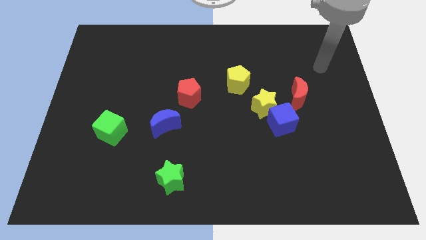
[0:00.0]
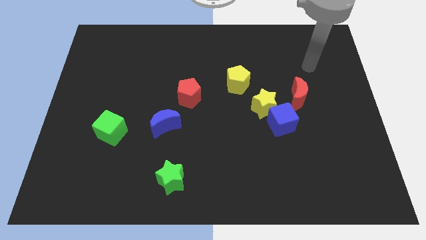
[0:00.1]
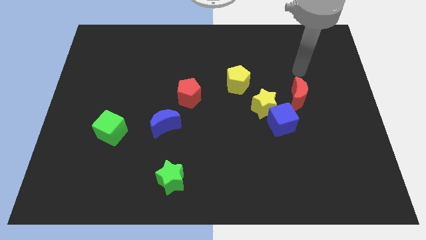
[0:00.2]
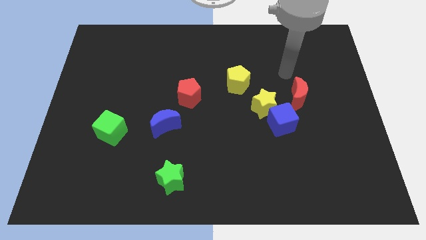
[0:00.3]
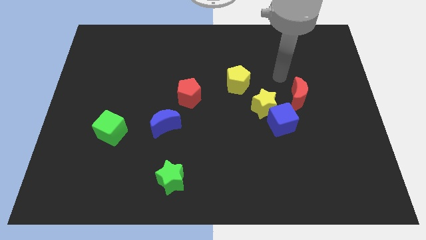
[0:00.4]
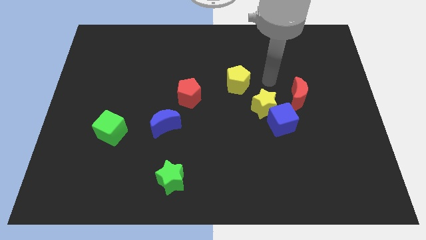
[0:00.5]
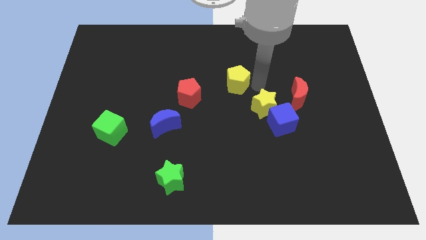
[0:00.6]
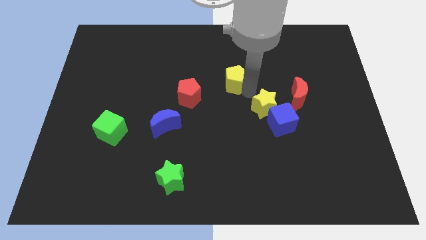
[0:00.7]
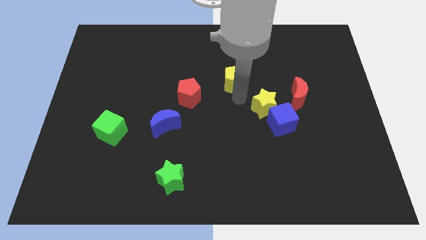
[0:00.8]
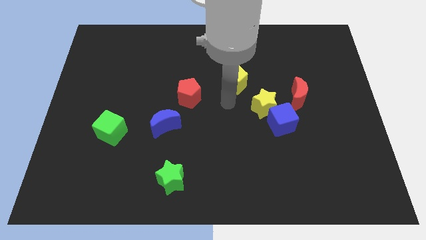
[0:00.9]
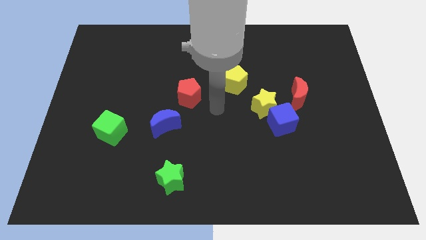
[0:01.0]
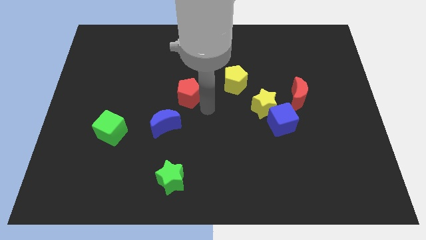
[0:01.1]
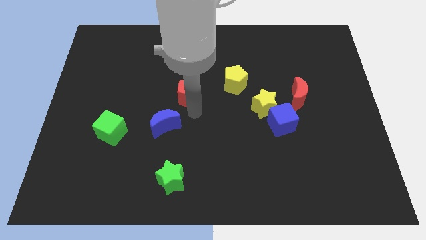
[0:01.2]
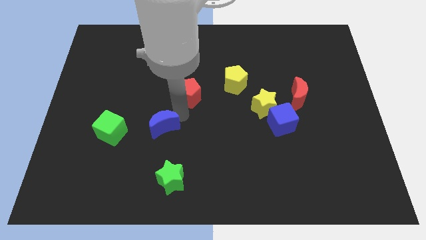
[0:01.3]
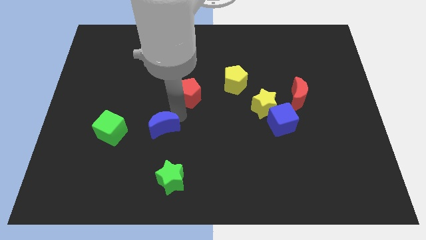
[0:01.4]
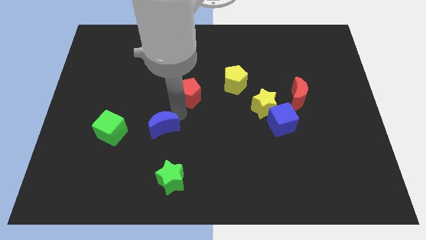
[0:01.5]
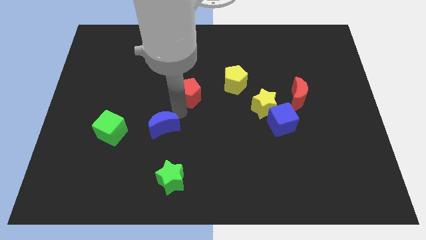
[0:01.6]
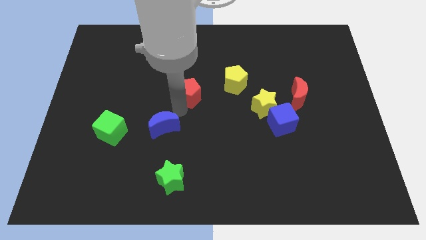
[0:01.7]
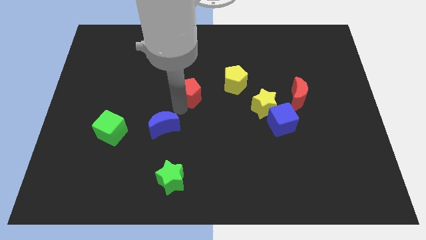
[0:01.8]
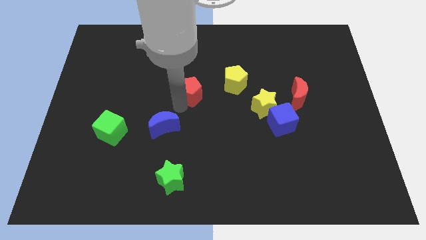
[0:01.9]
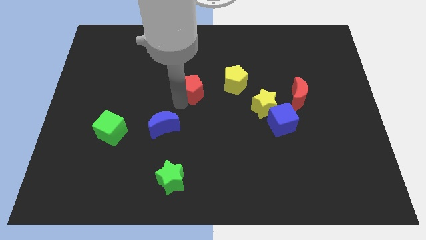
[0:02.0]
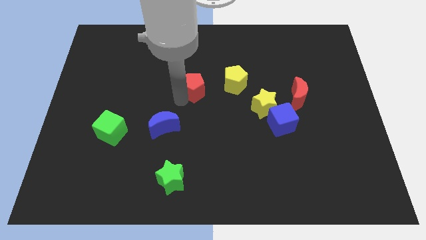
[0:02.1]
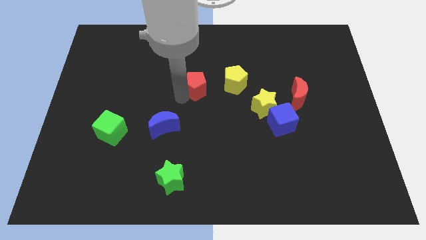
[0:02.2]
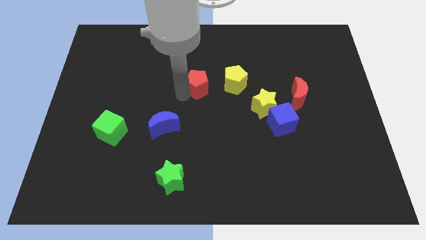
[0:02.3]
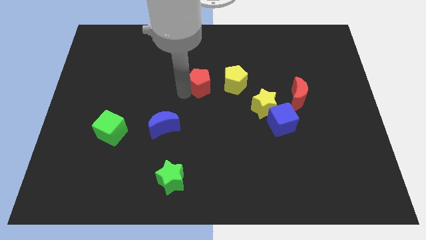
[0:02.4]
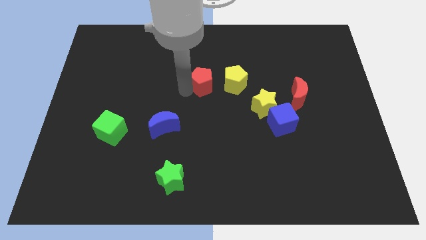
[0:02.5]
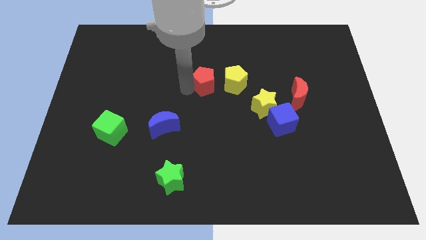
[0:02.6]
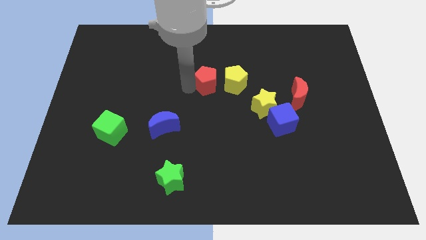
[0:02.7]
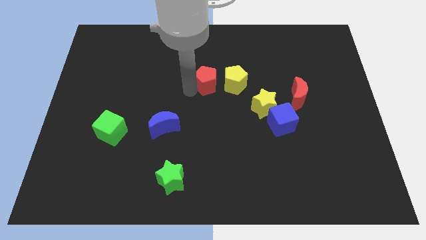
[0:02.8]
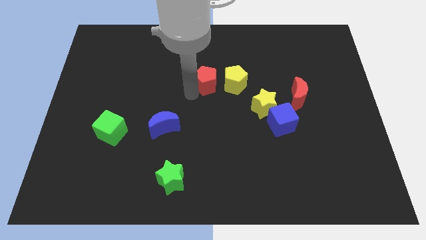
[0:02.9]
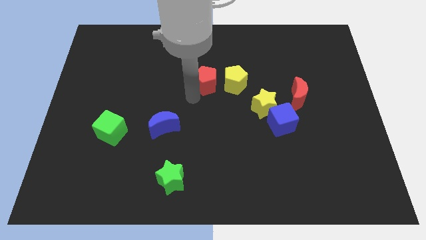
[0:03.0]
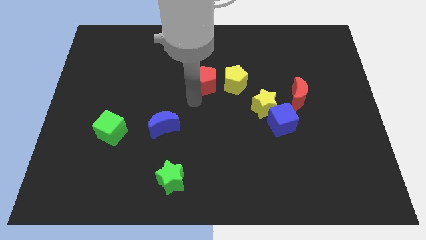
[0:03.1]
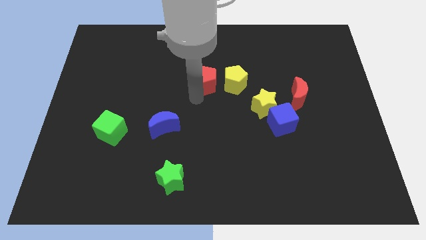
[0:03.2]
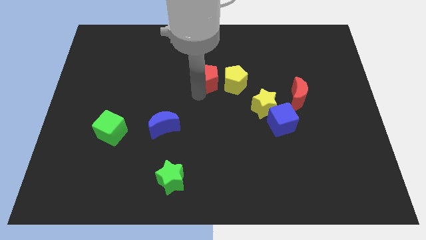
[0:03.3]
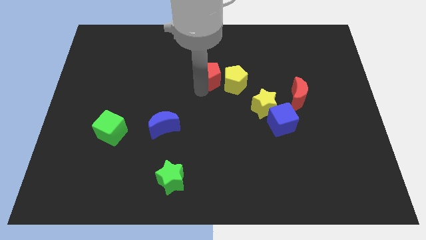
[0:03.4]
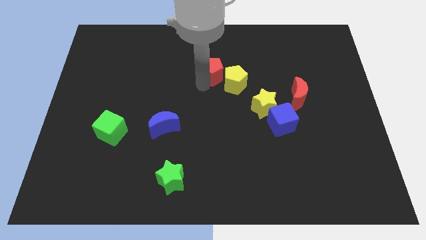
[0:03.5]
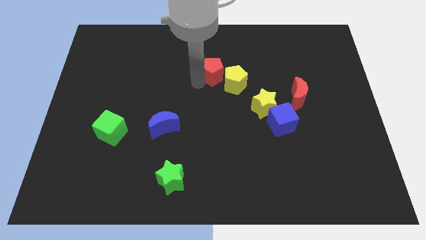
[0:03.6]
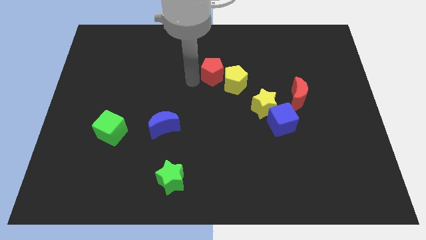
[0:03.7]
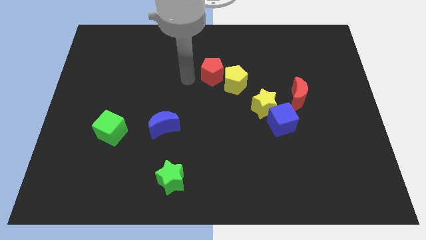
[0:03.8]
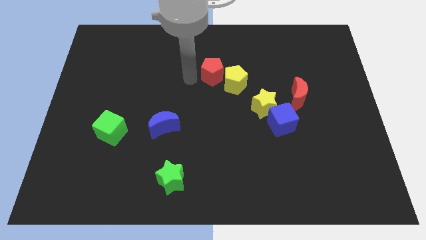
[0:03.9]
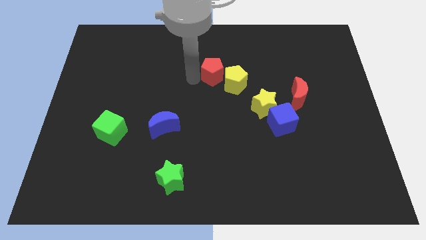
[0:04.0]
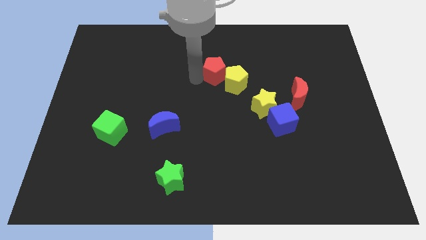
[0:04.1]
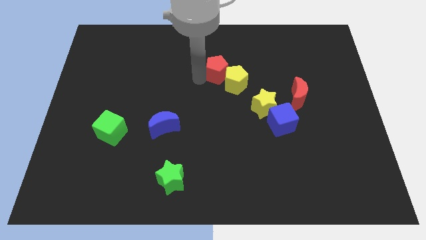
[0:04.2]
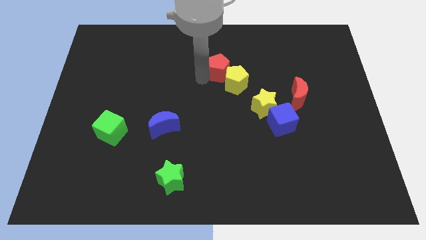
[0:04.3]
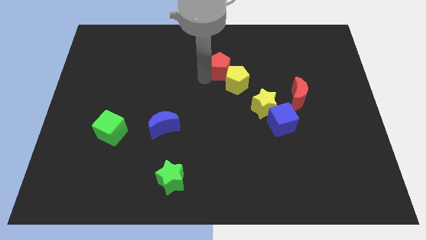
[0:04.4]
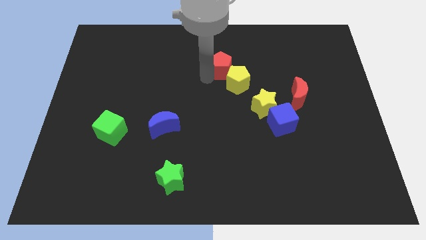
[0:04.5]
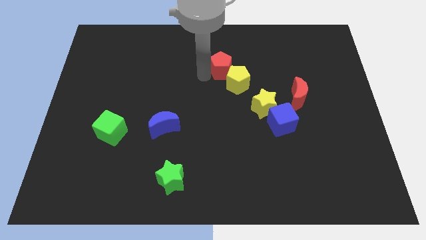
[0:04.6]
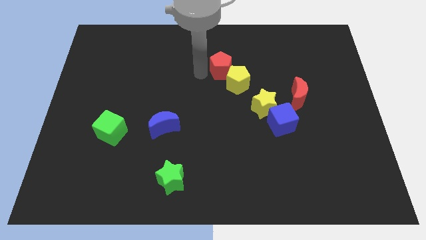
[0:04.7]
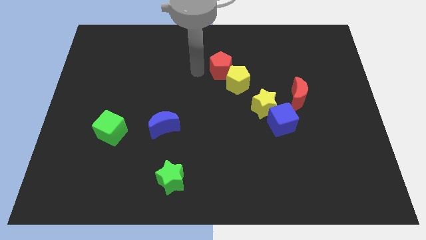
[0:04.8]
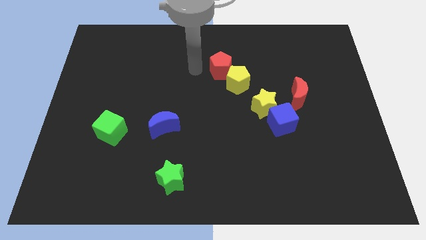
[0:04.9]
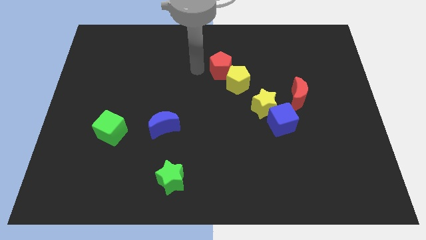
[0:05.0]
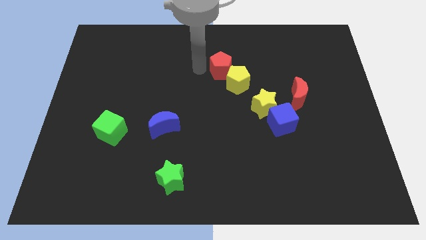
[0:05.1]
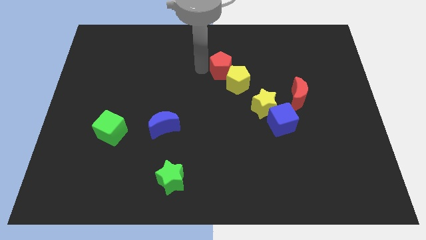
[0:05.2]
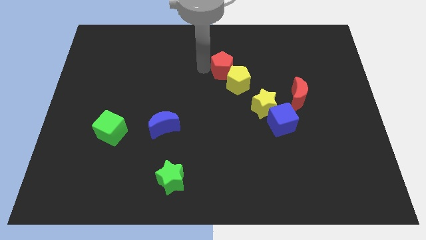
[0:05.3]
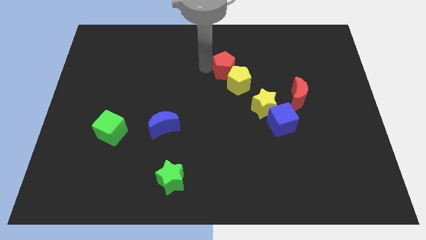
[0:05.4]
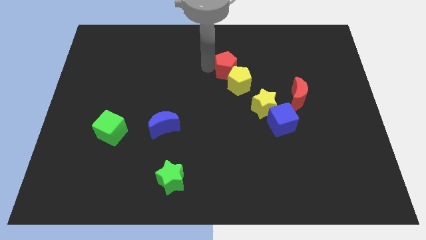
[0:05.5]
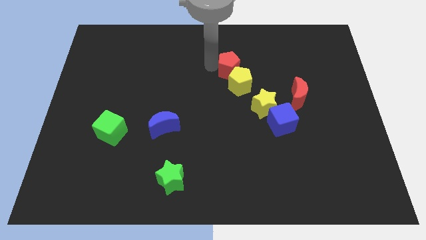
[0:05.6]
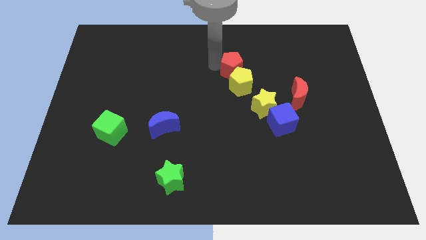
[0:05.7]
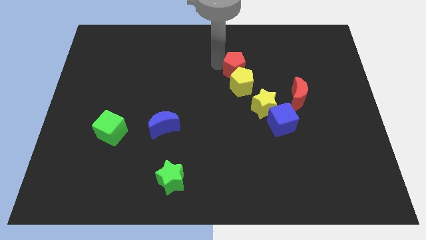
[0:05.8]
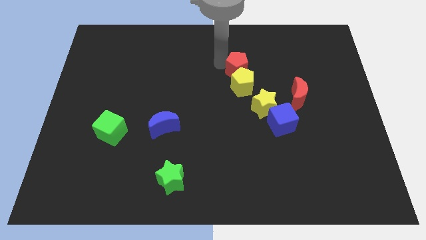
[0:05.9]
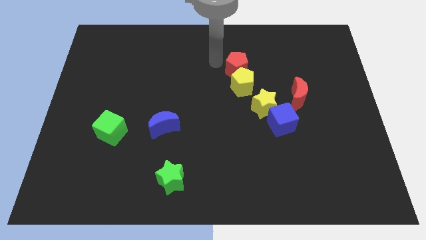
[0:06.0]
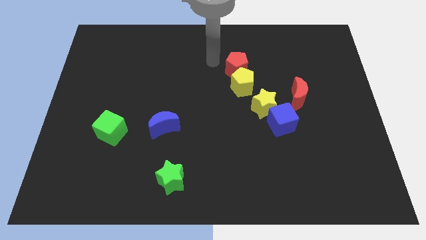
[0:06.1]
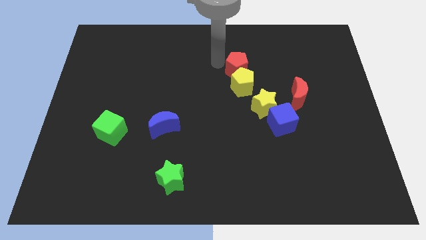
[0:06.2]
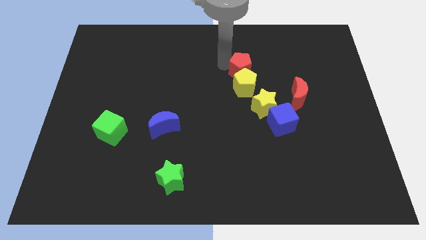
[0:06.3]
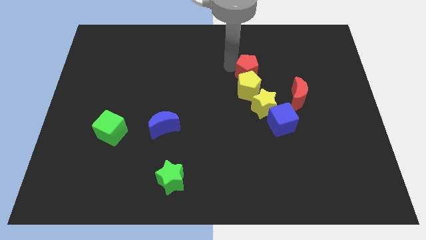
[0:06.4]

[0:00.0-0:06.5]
put the red pentagon to the top side of the yellow star

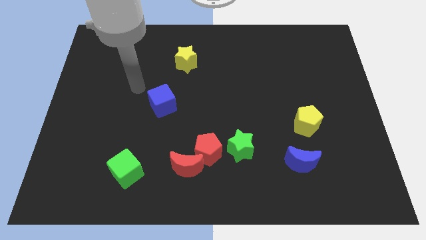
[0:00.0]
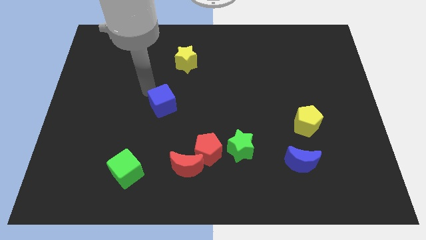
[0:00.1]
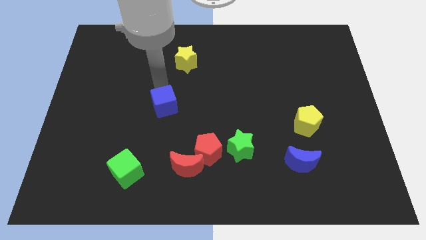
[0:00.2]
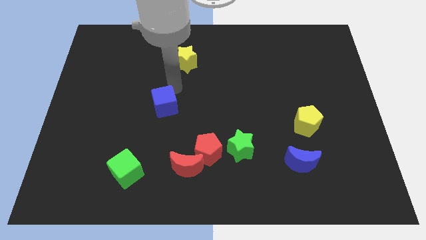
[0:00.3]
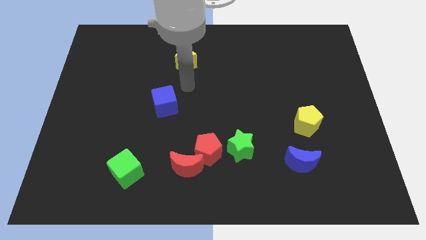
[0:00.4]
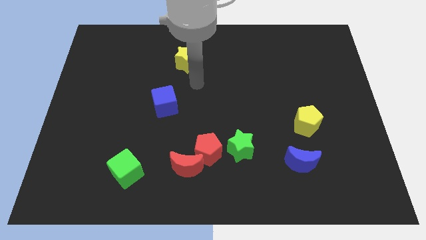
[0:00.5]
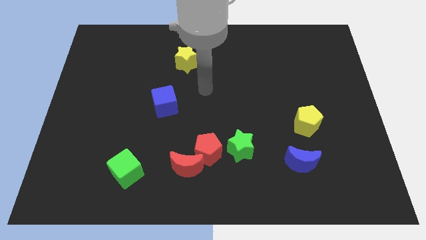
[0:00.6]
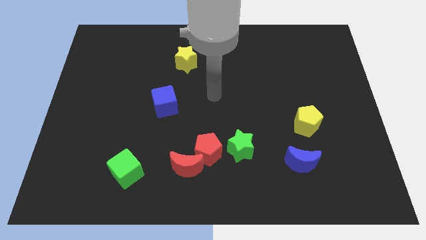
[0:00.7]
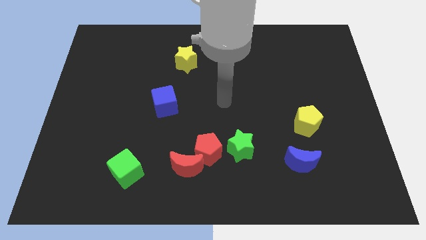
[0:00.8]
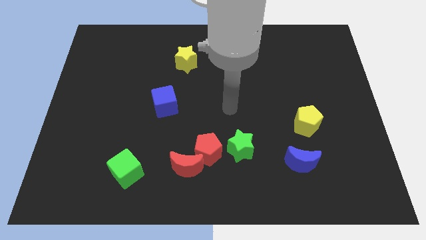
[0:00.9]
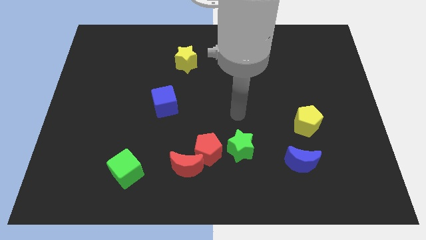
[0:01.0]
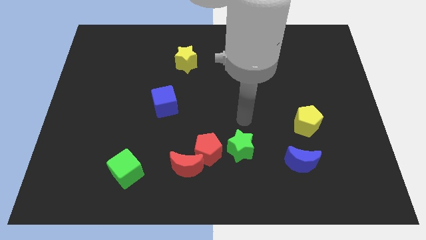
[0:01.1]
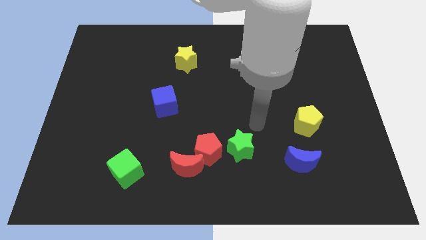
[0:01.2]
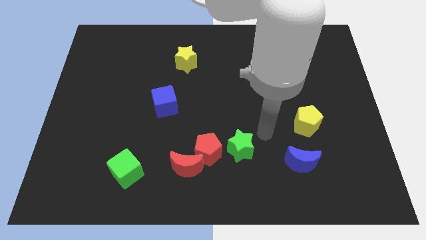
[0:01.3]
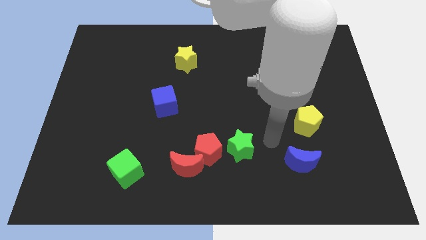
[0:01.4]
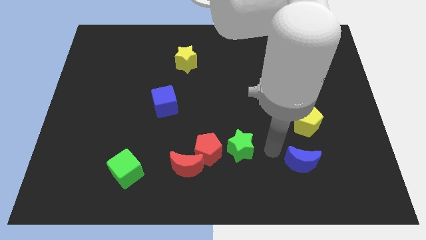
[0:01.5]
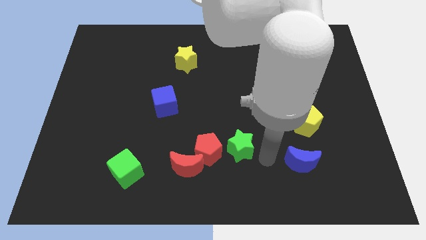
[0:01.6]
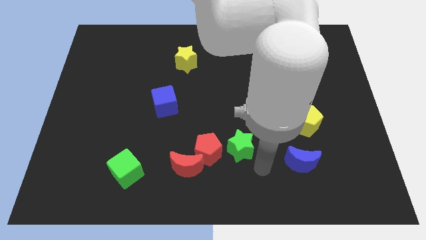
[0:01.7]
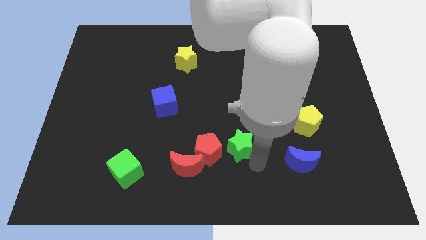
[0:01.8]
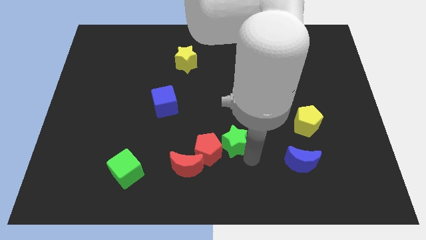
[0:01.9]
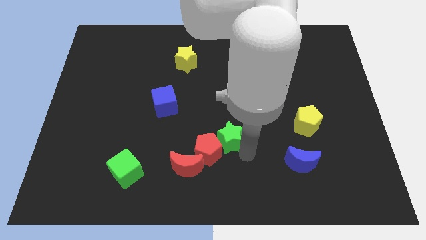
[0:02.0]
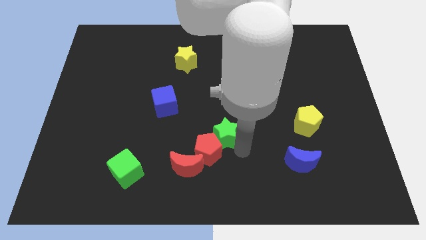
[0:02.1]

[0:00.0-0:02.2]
put the green star to the top of the red pentagon
